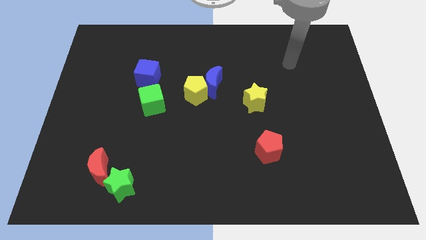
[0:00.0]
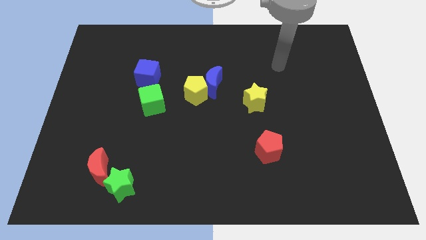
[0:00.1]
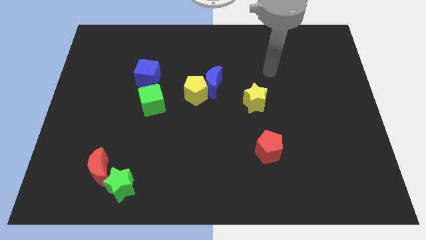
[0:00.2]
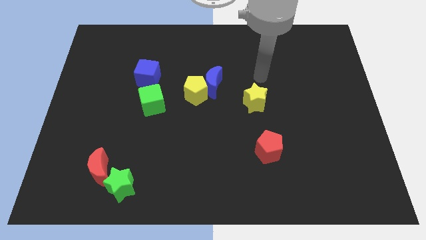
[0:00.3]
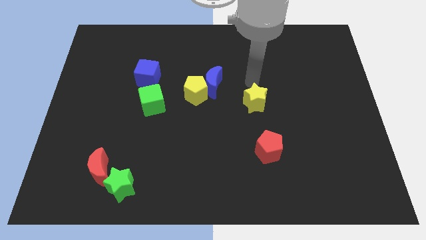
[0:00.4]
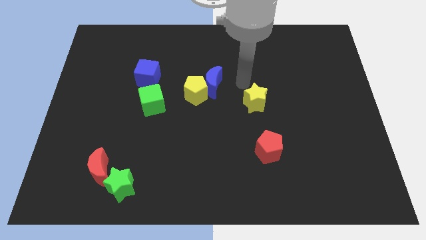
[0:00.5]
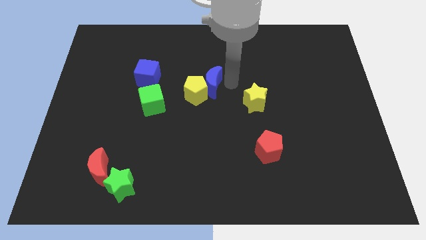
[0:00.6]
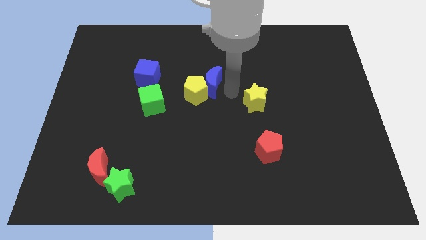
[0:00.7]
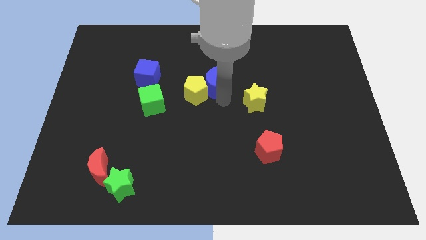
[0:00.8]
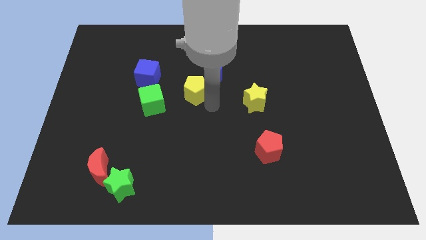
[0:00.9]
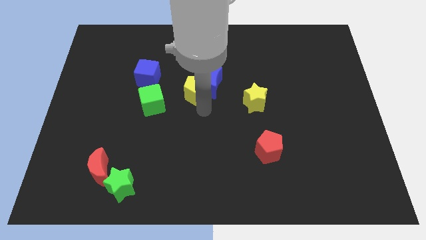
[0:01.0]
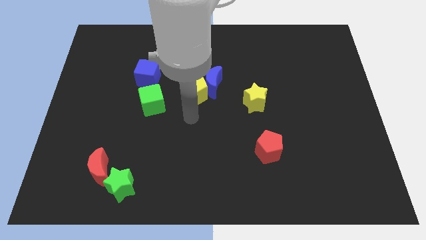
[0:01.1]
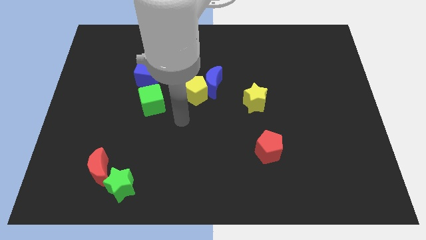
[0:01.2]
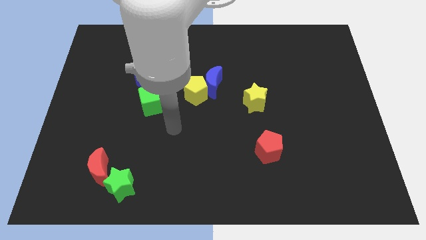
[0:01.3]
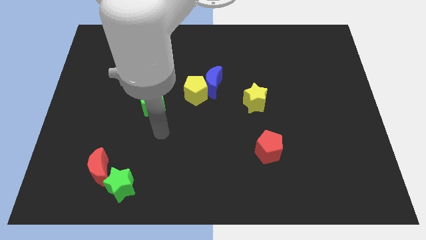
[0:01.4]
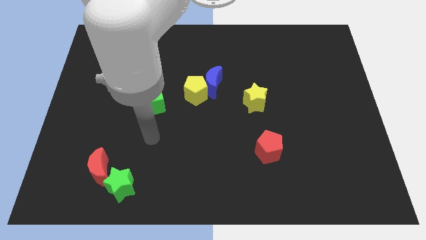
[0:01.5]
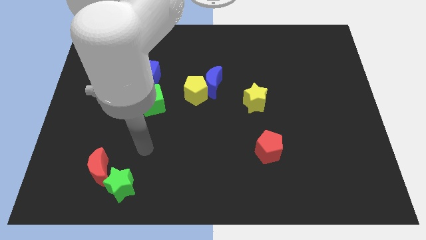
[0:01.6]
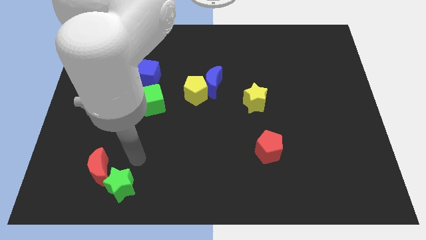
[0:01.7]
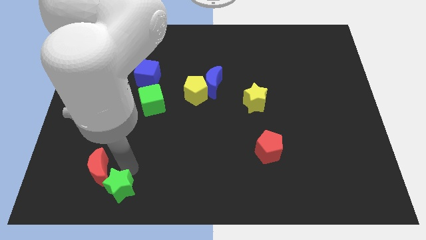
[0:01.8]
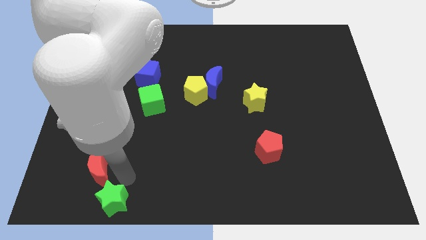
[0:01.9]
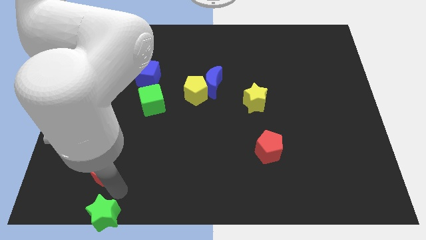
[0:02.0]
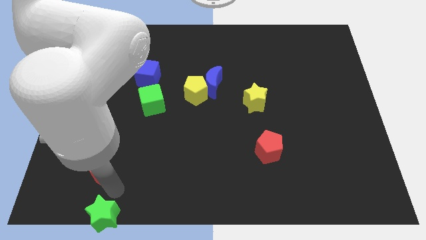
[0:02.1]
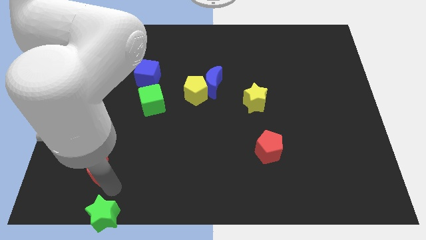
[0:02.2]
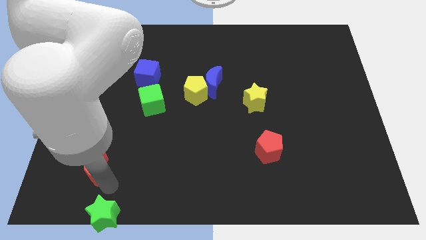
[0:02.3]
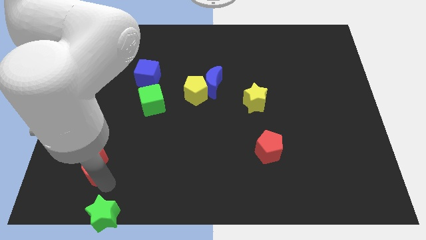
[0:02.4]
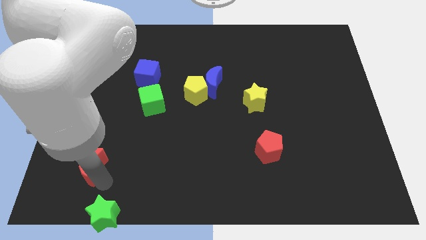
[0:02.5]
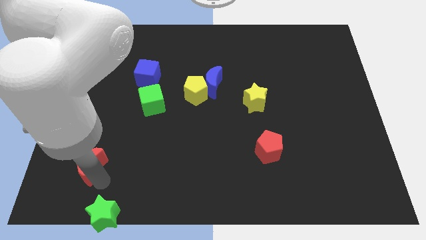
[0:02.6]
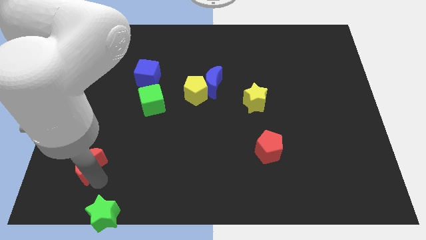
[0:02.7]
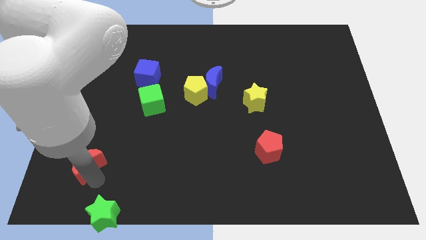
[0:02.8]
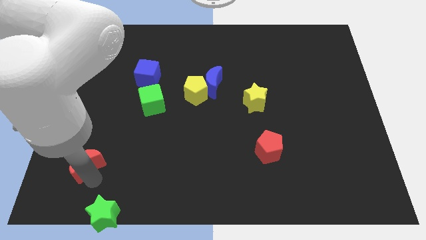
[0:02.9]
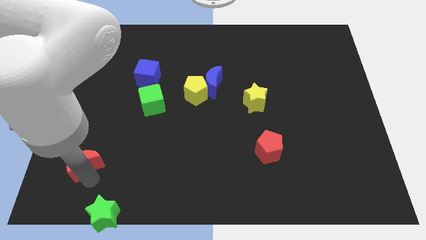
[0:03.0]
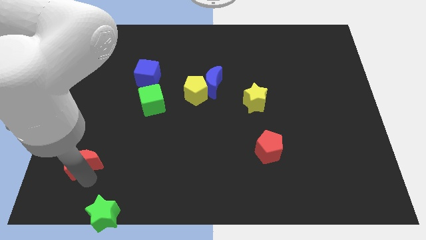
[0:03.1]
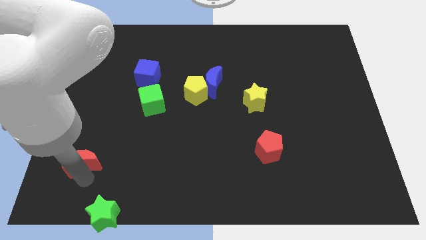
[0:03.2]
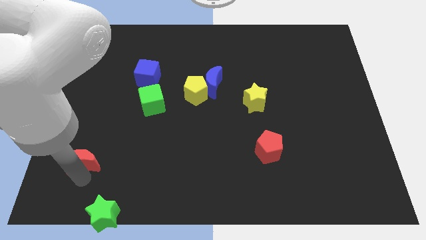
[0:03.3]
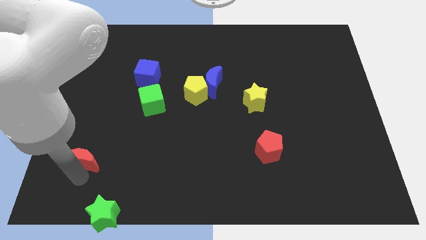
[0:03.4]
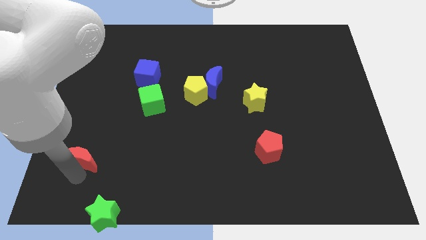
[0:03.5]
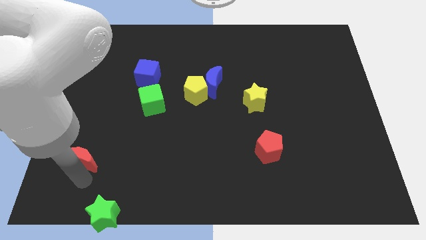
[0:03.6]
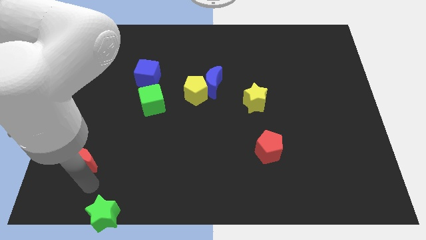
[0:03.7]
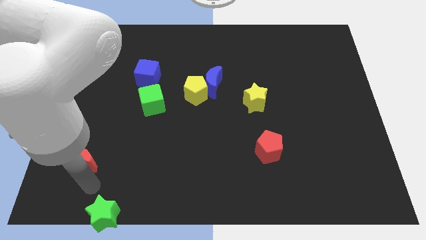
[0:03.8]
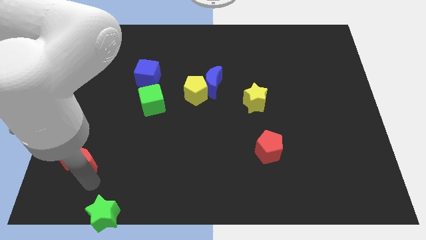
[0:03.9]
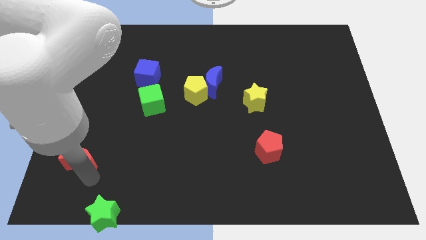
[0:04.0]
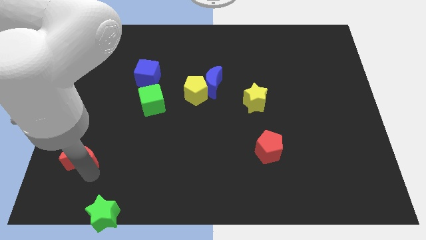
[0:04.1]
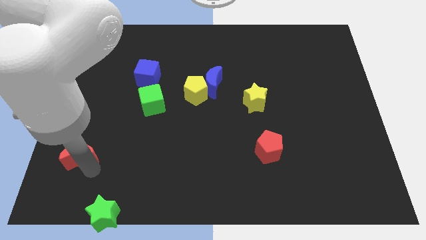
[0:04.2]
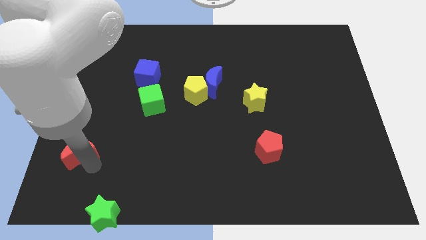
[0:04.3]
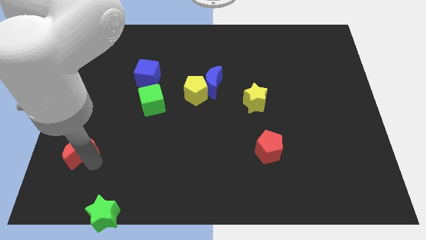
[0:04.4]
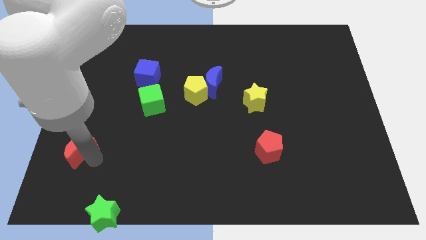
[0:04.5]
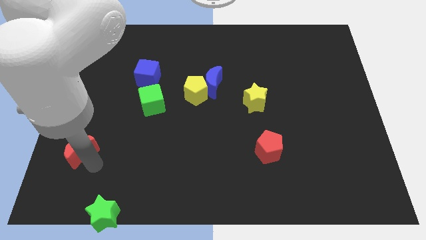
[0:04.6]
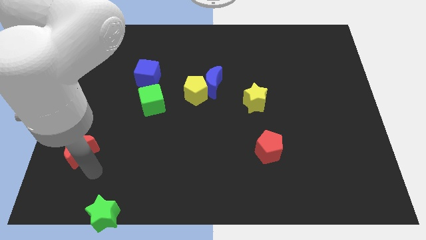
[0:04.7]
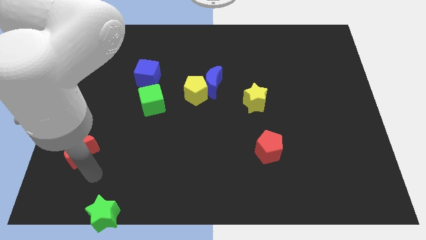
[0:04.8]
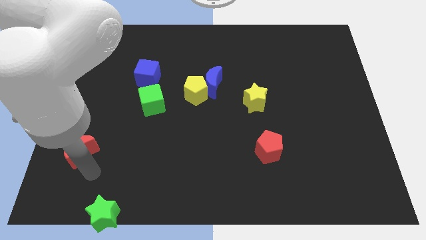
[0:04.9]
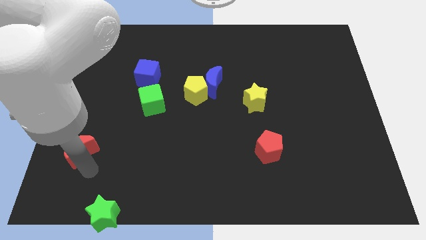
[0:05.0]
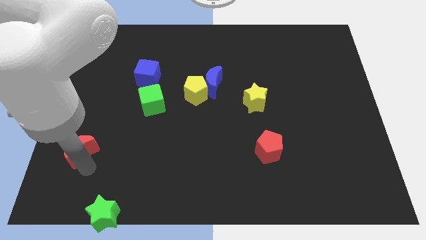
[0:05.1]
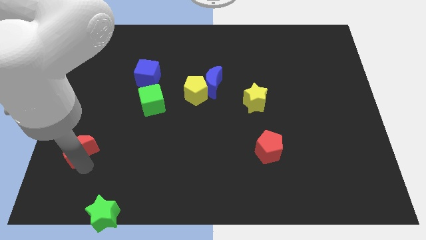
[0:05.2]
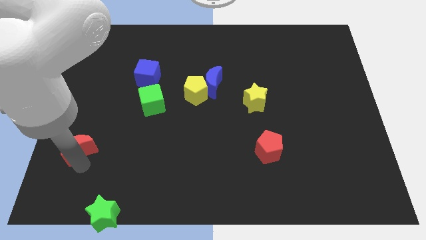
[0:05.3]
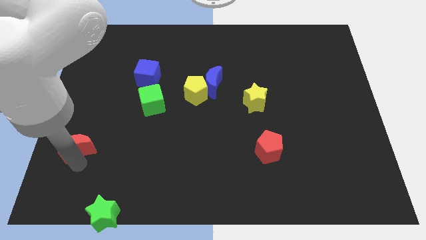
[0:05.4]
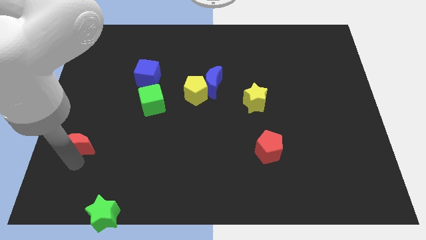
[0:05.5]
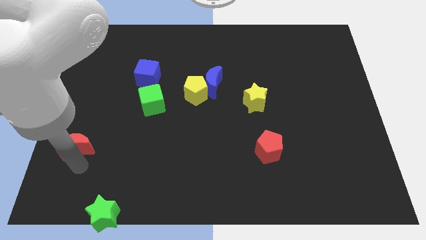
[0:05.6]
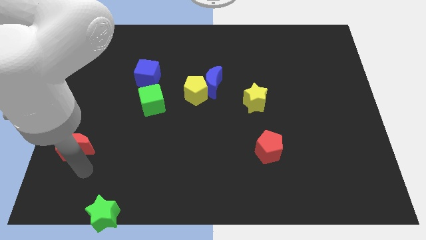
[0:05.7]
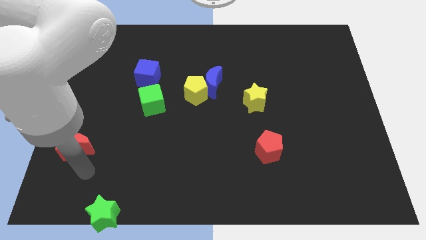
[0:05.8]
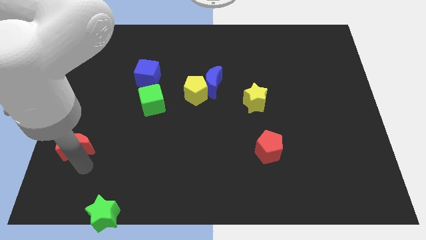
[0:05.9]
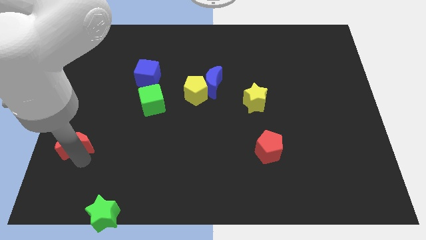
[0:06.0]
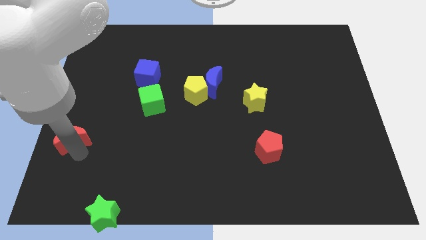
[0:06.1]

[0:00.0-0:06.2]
push the red moon to the center left
